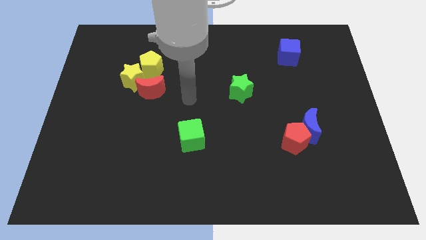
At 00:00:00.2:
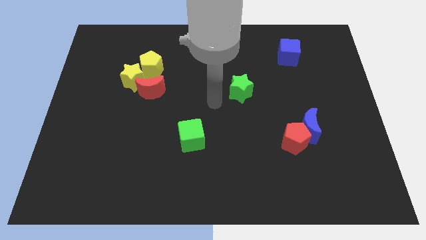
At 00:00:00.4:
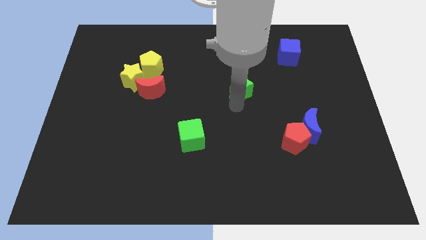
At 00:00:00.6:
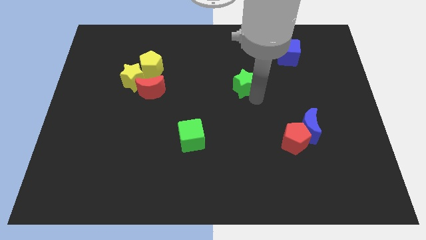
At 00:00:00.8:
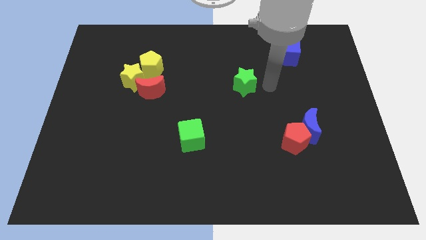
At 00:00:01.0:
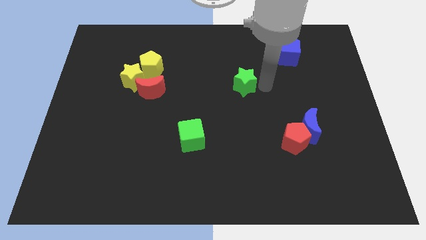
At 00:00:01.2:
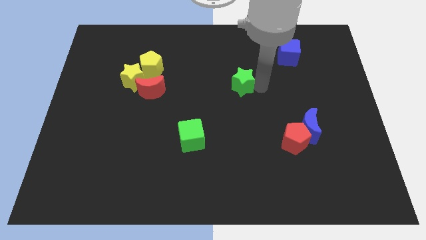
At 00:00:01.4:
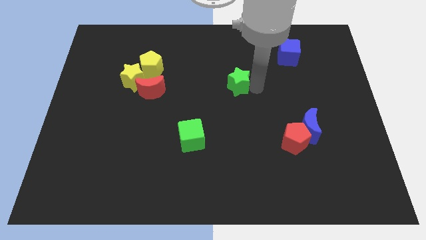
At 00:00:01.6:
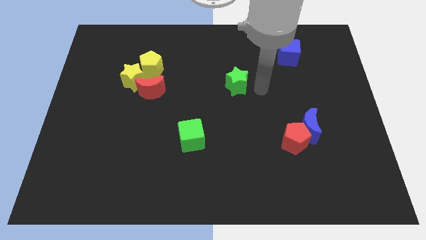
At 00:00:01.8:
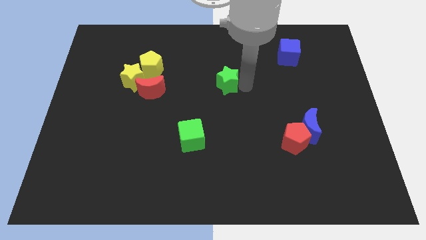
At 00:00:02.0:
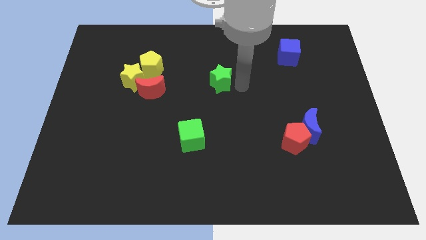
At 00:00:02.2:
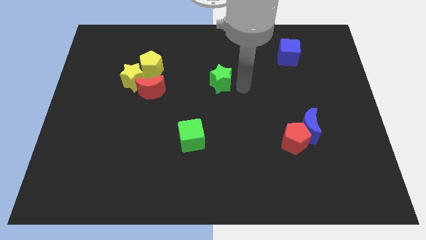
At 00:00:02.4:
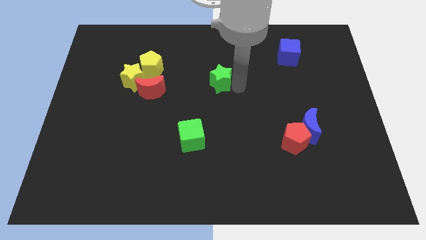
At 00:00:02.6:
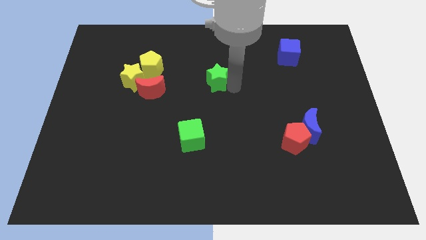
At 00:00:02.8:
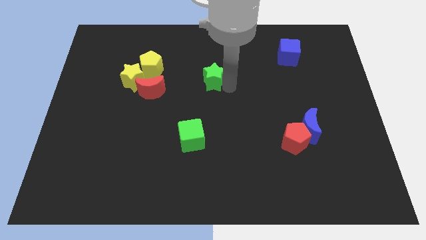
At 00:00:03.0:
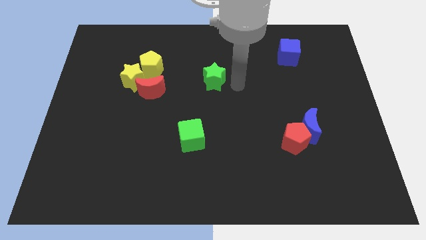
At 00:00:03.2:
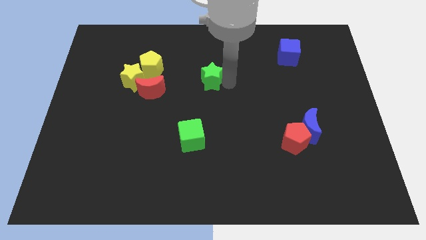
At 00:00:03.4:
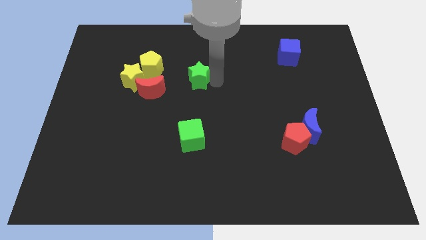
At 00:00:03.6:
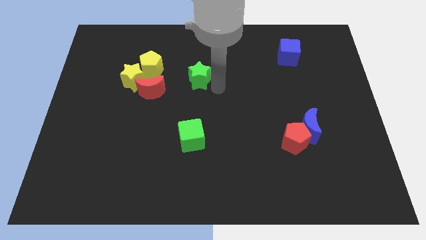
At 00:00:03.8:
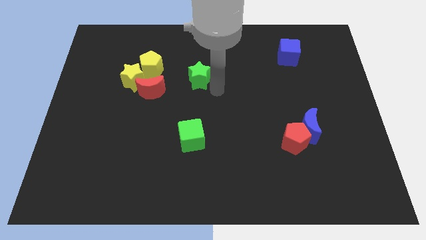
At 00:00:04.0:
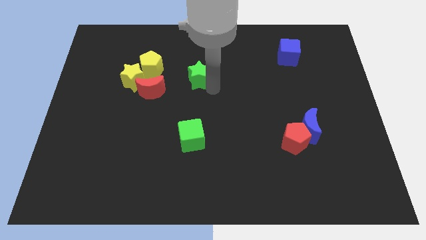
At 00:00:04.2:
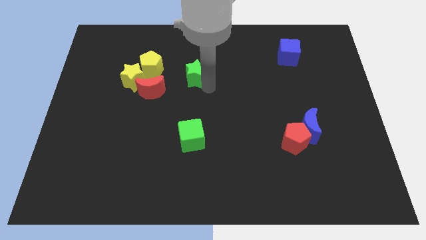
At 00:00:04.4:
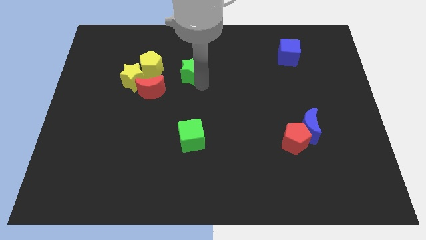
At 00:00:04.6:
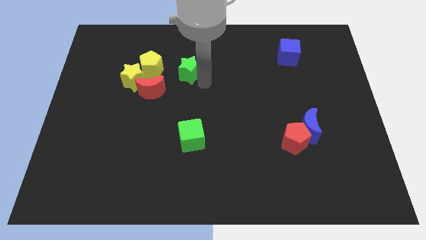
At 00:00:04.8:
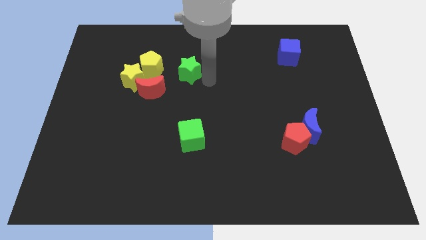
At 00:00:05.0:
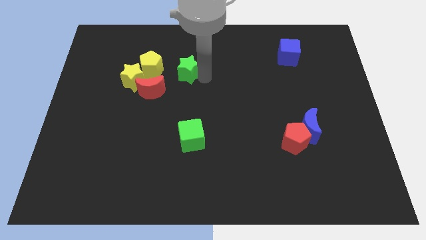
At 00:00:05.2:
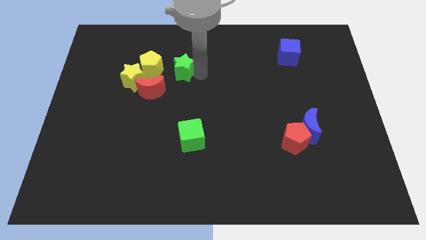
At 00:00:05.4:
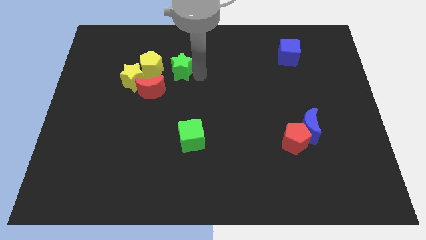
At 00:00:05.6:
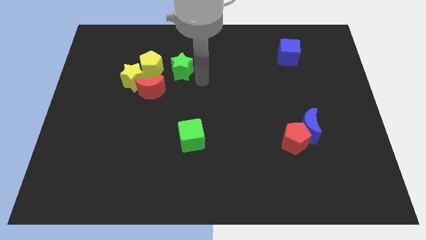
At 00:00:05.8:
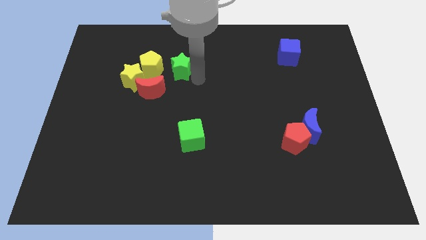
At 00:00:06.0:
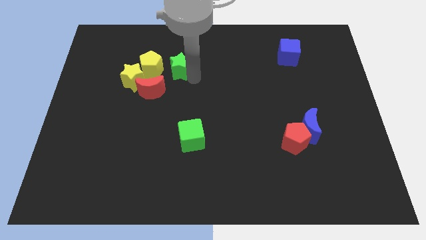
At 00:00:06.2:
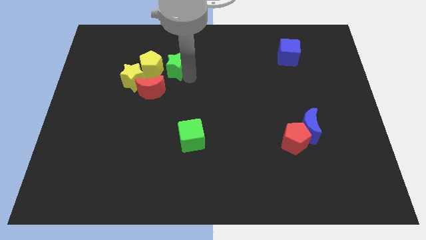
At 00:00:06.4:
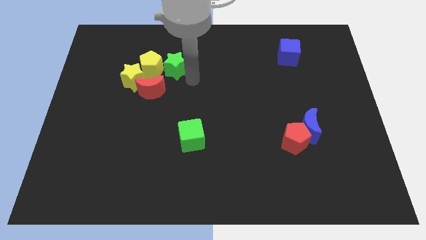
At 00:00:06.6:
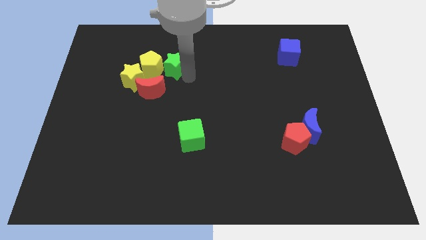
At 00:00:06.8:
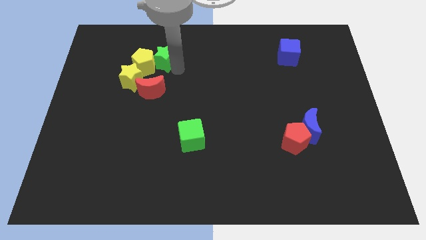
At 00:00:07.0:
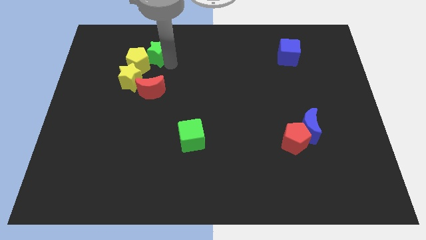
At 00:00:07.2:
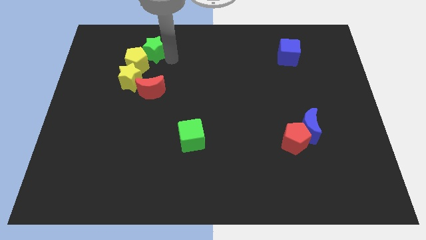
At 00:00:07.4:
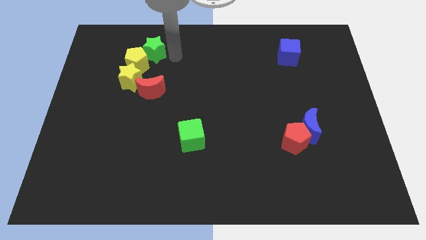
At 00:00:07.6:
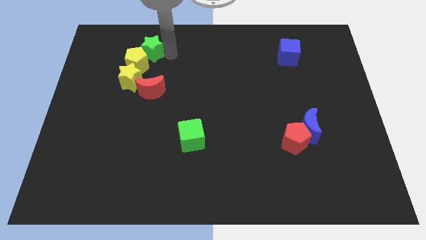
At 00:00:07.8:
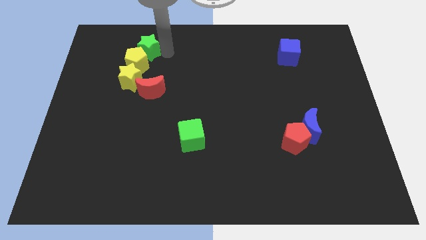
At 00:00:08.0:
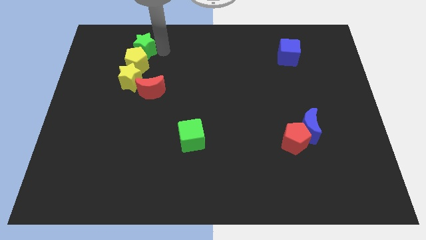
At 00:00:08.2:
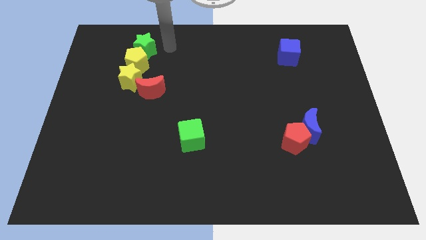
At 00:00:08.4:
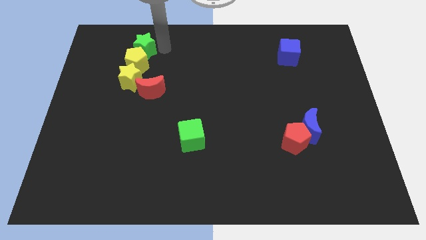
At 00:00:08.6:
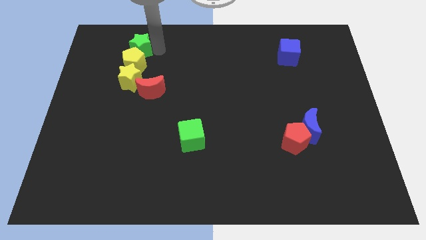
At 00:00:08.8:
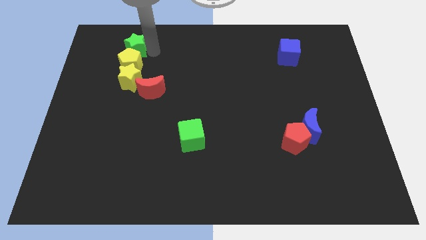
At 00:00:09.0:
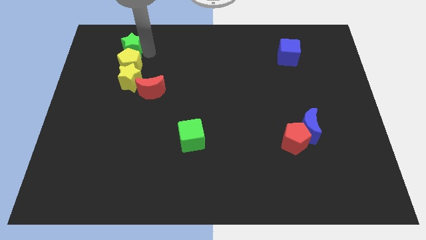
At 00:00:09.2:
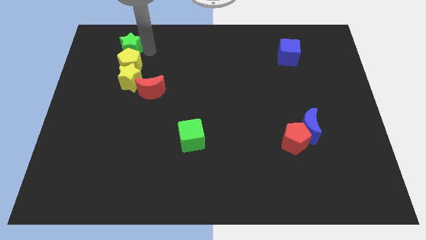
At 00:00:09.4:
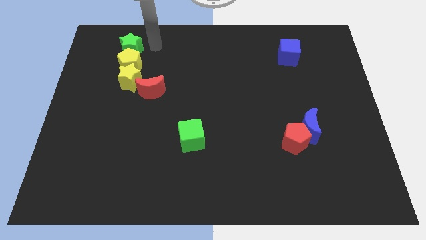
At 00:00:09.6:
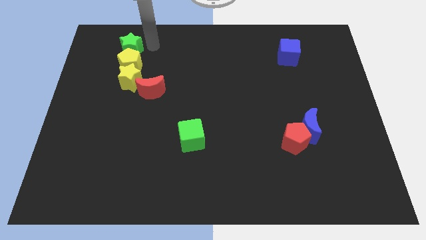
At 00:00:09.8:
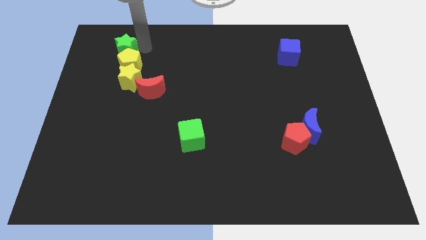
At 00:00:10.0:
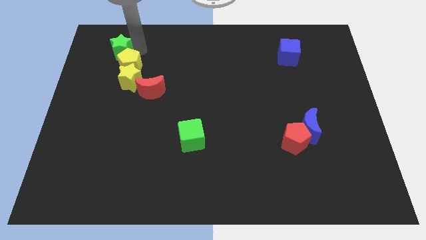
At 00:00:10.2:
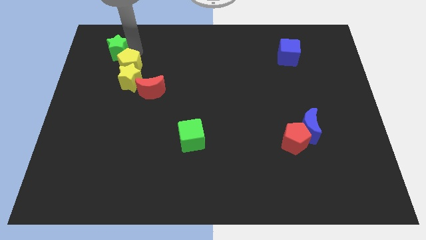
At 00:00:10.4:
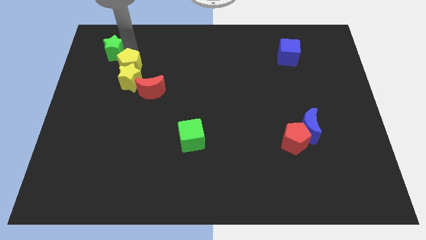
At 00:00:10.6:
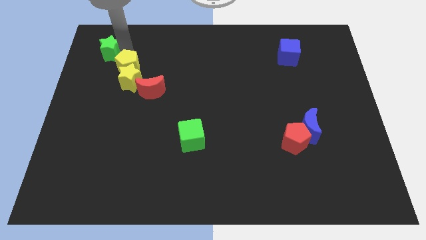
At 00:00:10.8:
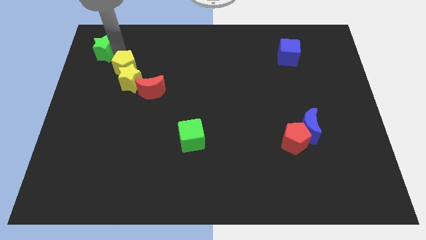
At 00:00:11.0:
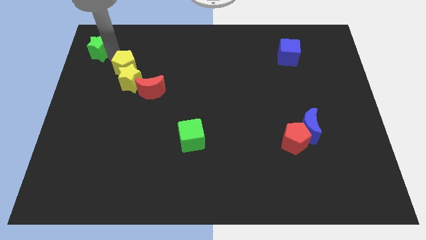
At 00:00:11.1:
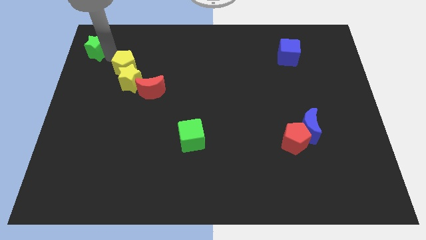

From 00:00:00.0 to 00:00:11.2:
push the green star to the top left

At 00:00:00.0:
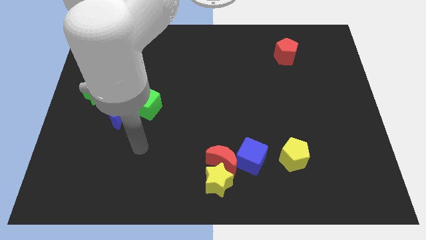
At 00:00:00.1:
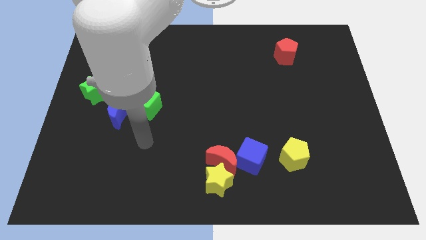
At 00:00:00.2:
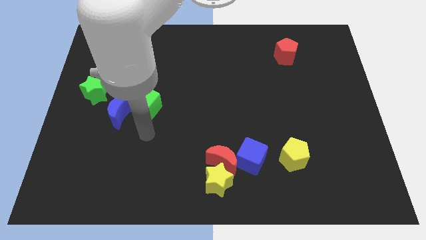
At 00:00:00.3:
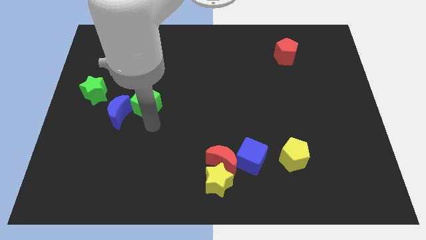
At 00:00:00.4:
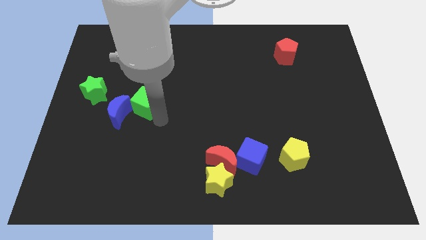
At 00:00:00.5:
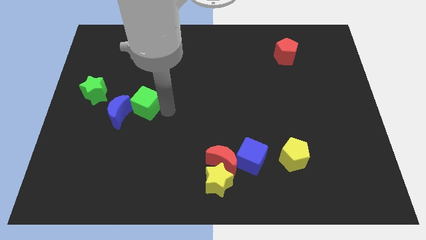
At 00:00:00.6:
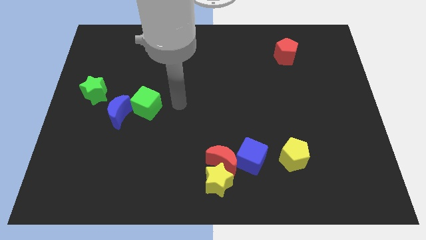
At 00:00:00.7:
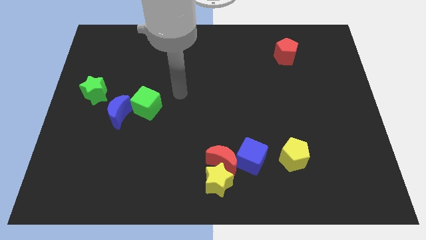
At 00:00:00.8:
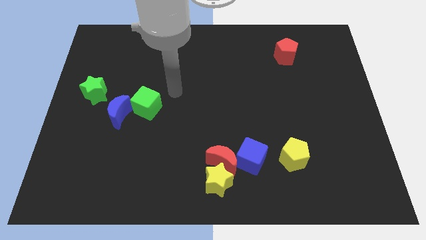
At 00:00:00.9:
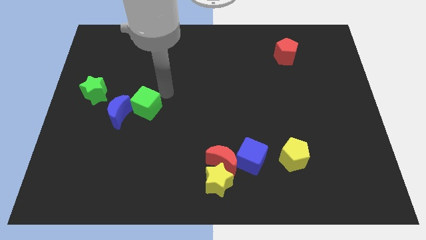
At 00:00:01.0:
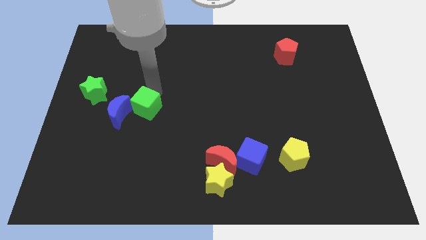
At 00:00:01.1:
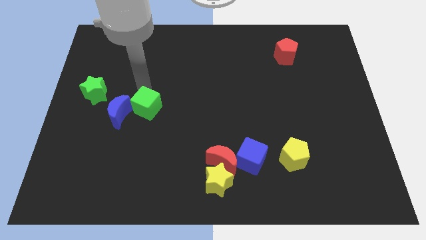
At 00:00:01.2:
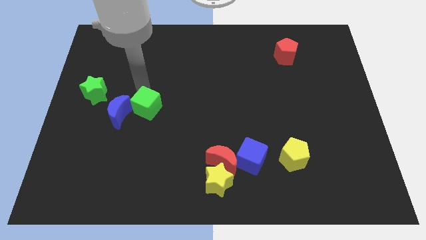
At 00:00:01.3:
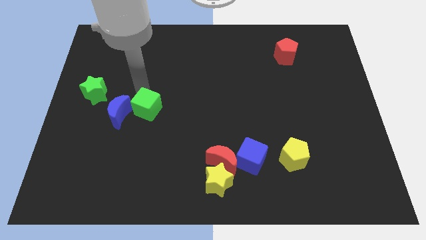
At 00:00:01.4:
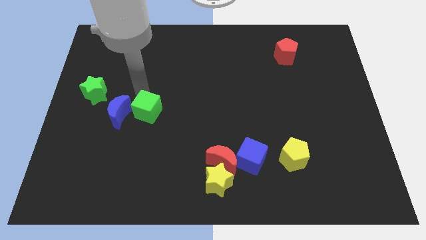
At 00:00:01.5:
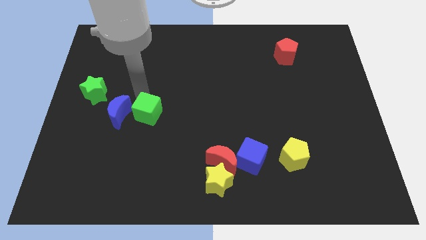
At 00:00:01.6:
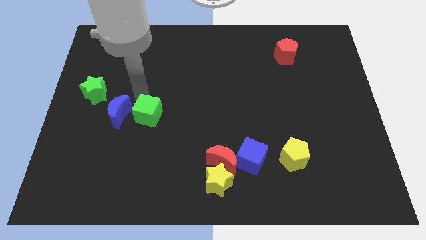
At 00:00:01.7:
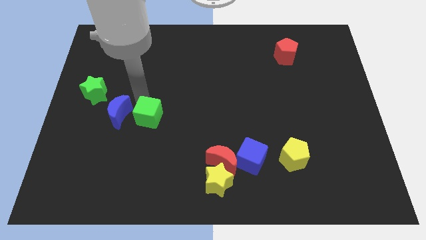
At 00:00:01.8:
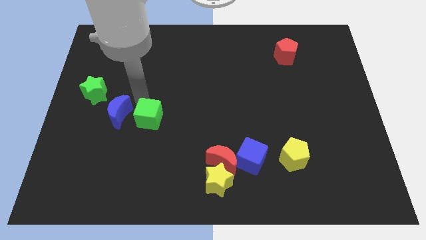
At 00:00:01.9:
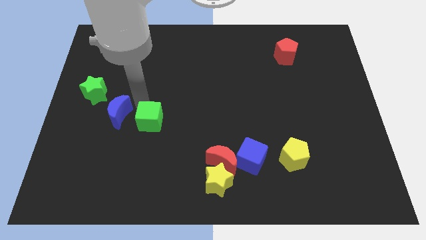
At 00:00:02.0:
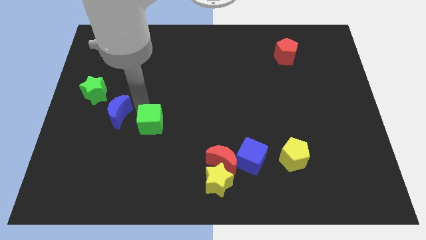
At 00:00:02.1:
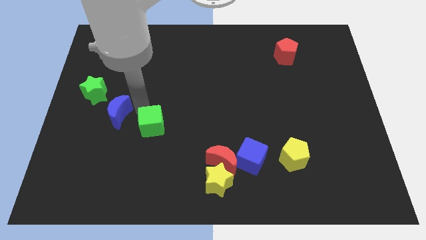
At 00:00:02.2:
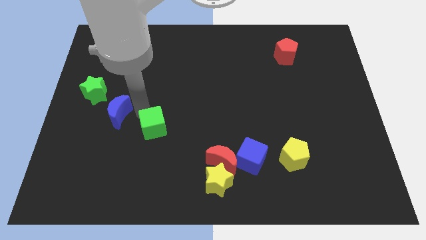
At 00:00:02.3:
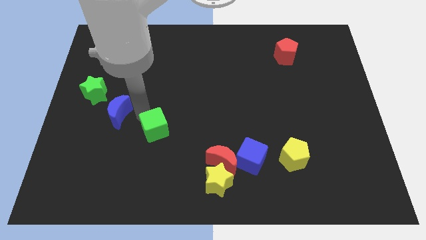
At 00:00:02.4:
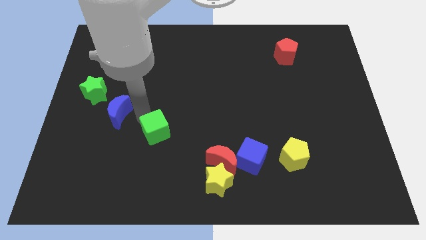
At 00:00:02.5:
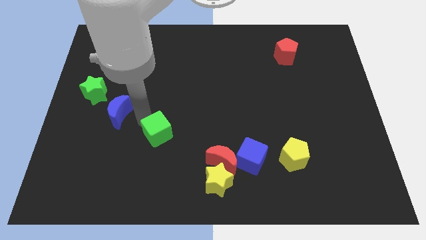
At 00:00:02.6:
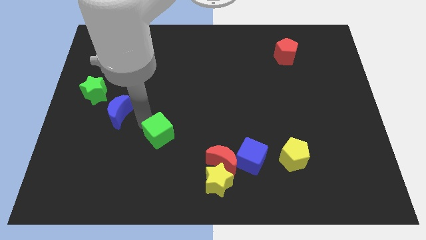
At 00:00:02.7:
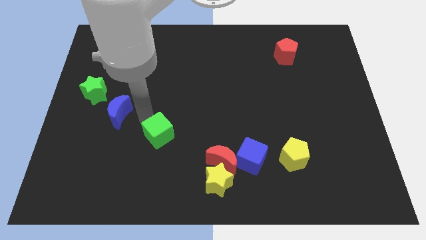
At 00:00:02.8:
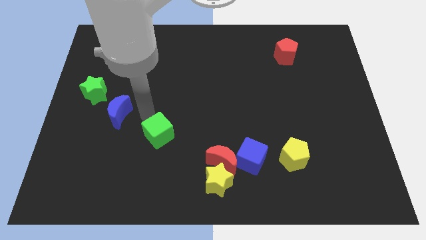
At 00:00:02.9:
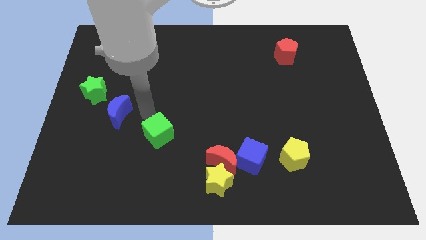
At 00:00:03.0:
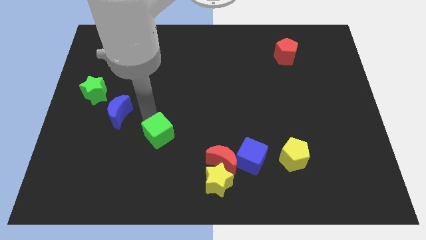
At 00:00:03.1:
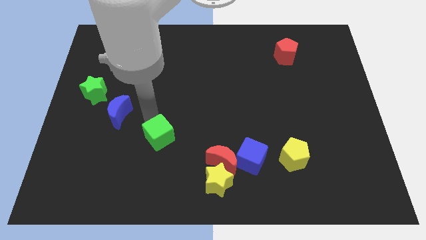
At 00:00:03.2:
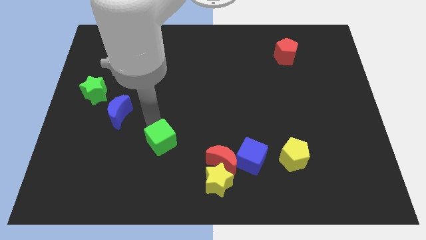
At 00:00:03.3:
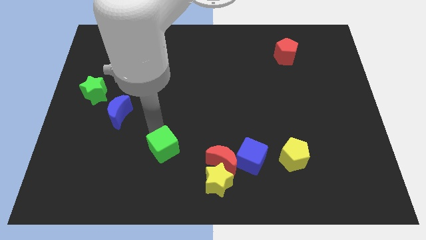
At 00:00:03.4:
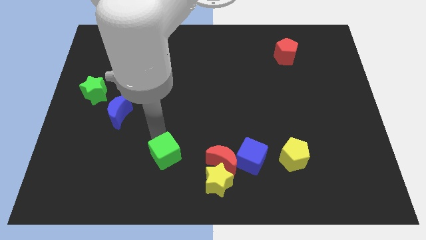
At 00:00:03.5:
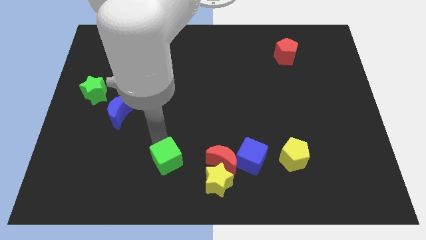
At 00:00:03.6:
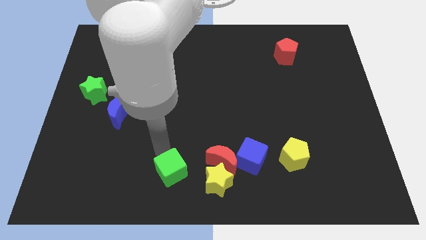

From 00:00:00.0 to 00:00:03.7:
move the green cube to the bottom
